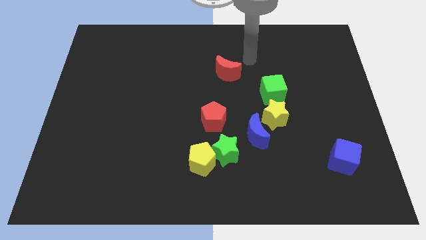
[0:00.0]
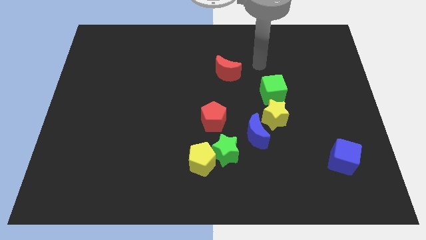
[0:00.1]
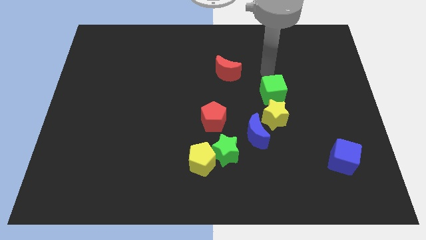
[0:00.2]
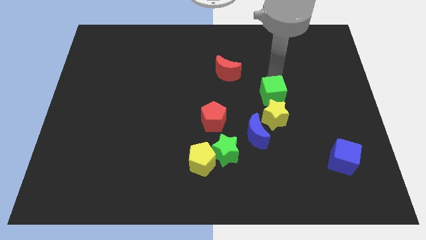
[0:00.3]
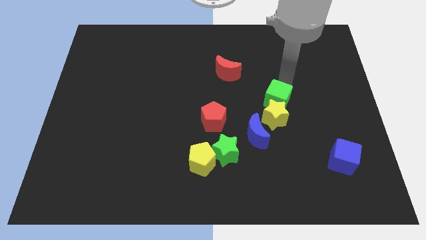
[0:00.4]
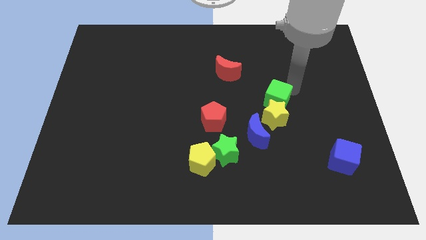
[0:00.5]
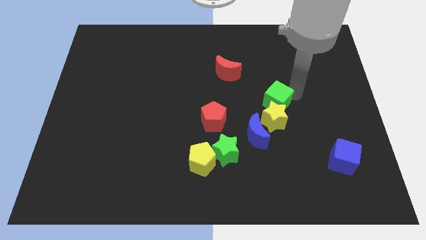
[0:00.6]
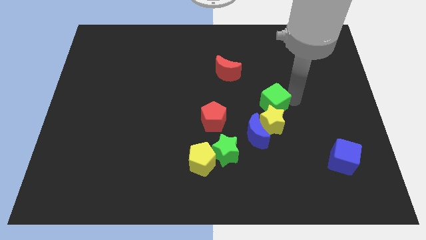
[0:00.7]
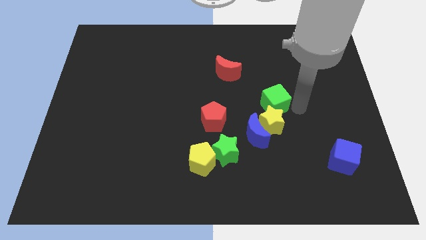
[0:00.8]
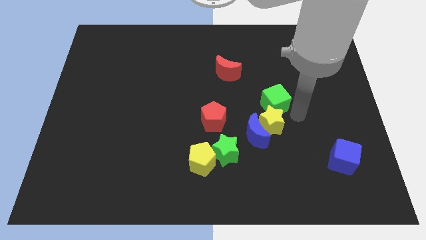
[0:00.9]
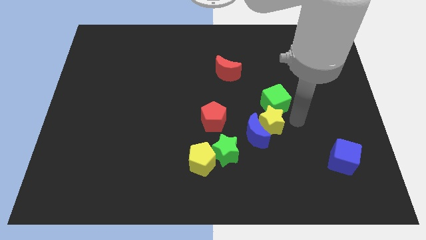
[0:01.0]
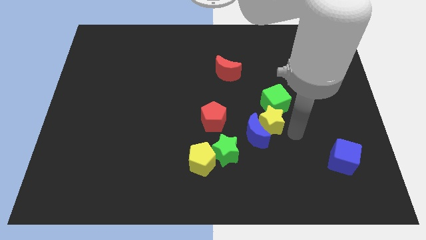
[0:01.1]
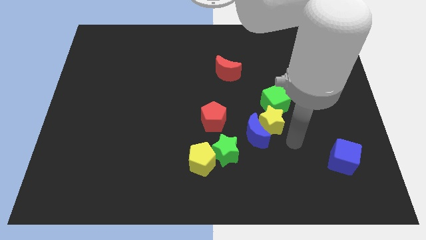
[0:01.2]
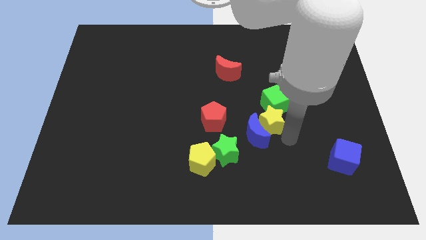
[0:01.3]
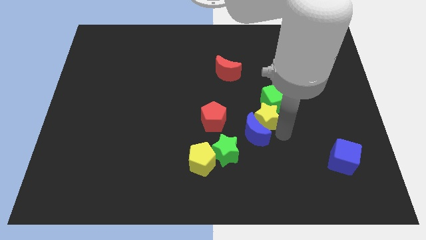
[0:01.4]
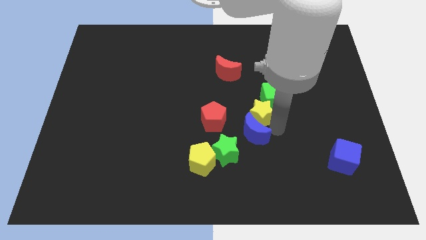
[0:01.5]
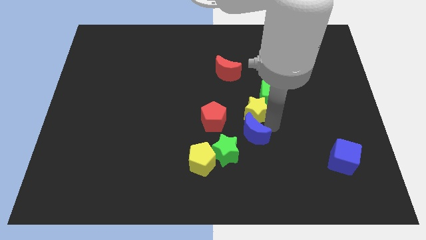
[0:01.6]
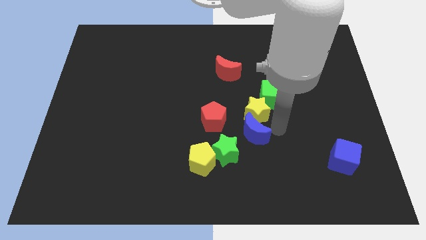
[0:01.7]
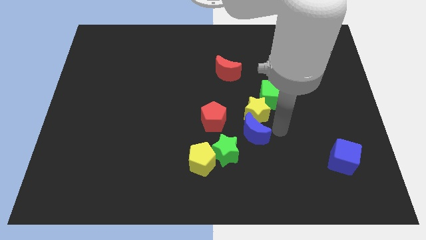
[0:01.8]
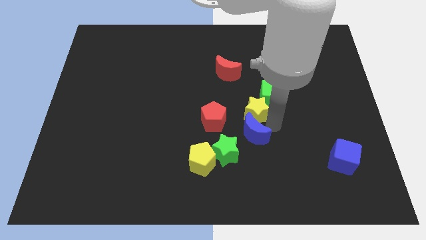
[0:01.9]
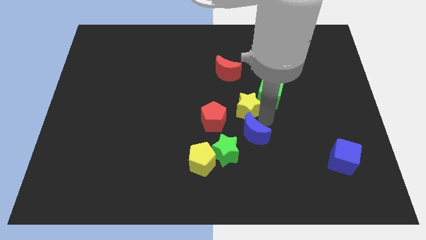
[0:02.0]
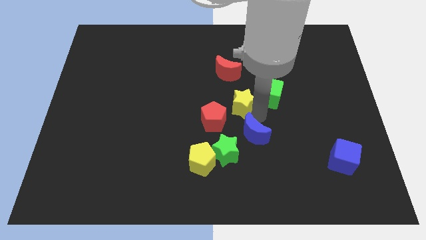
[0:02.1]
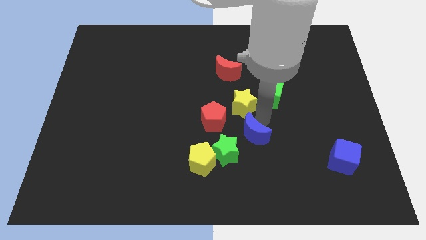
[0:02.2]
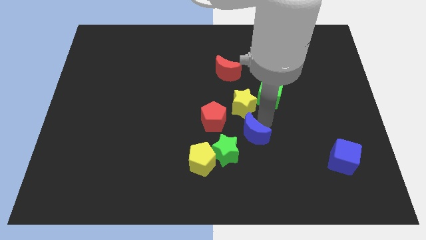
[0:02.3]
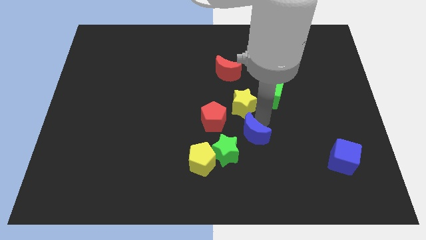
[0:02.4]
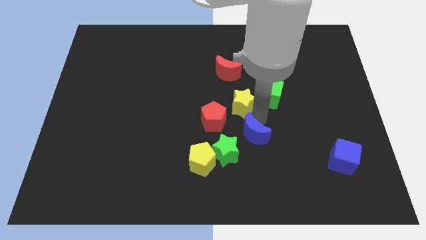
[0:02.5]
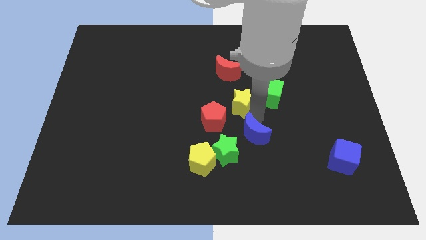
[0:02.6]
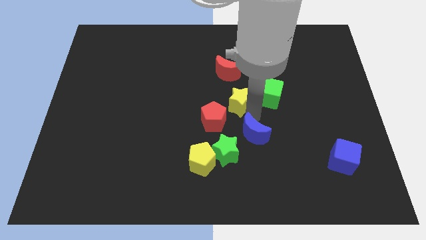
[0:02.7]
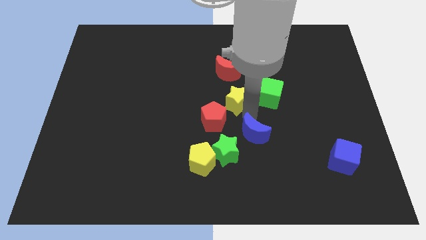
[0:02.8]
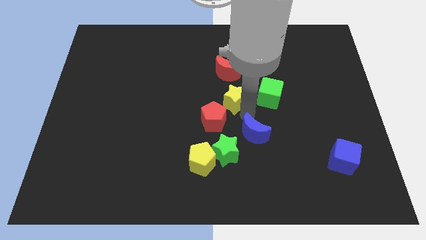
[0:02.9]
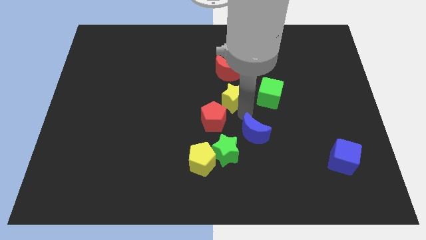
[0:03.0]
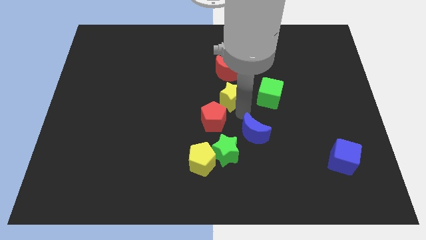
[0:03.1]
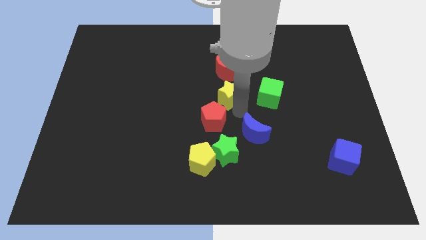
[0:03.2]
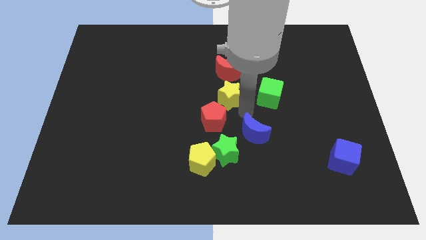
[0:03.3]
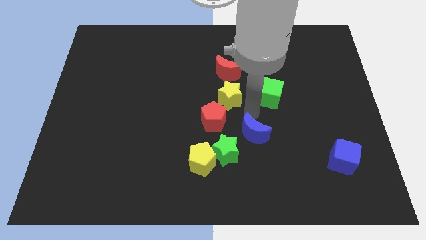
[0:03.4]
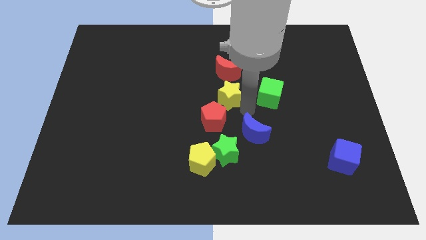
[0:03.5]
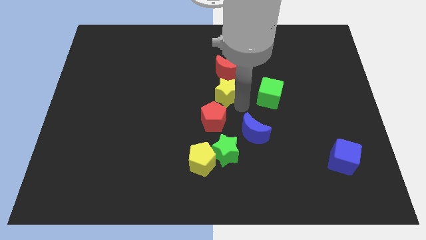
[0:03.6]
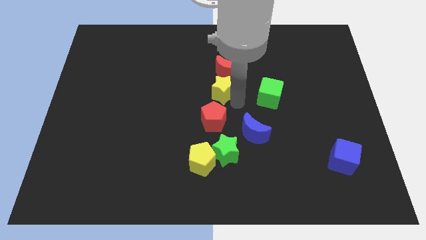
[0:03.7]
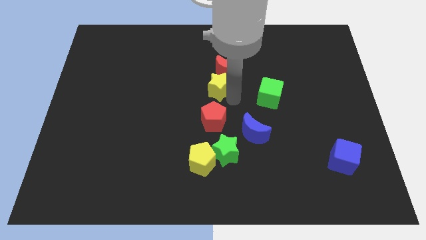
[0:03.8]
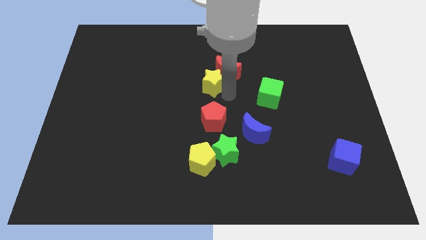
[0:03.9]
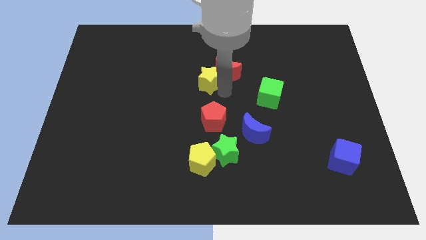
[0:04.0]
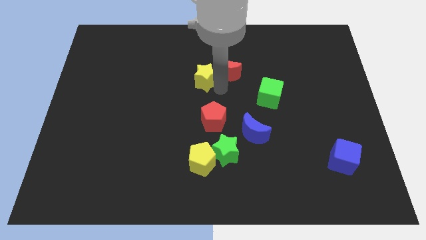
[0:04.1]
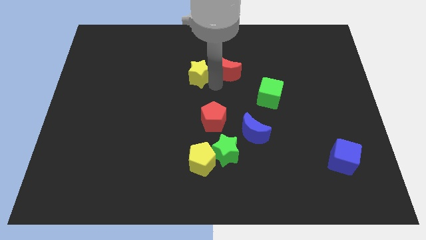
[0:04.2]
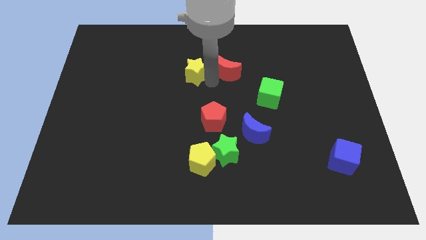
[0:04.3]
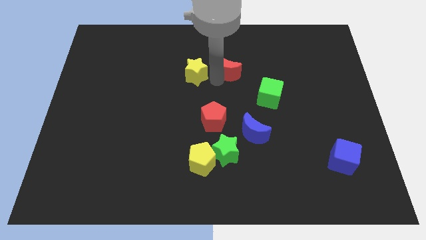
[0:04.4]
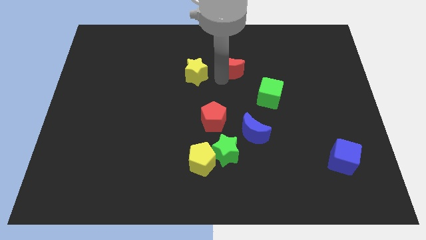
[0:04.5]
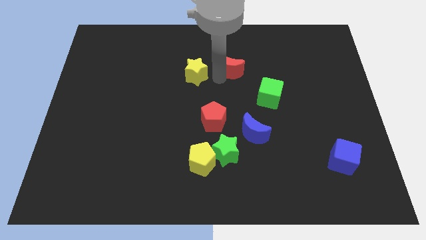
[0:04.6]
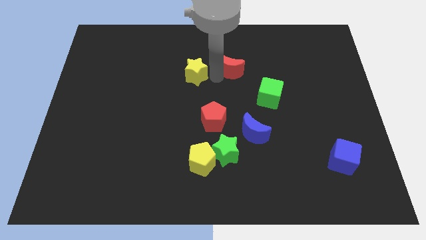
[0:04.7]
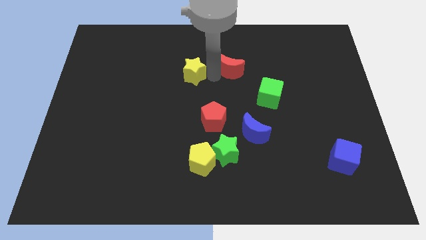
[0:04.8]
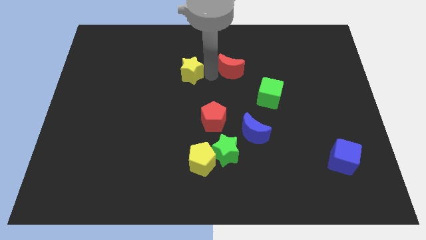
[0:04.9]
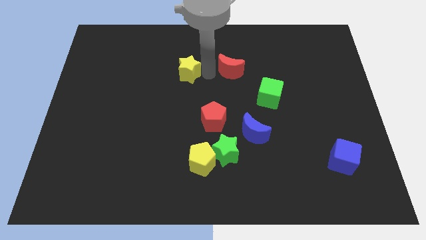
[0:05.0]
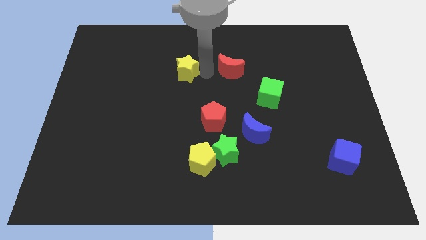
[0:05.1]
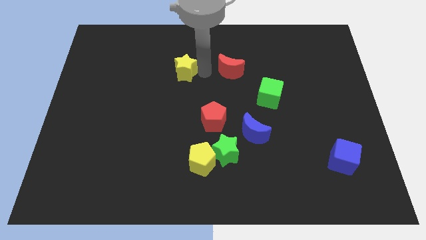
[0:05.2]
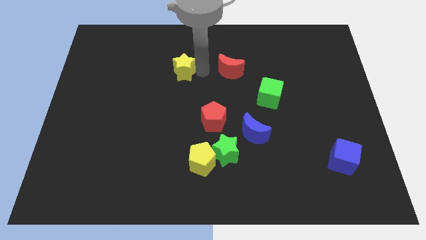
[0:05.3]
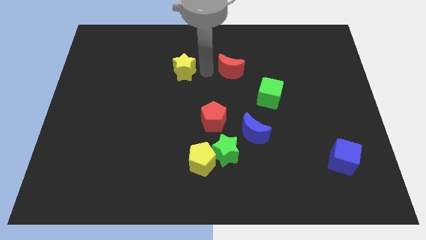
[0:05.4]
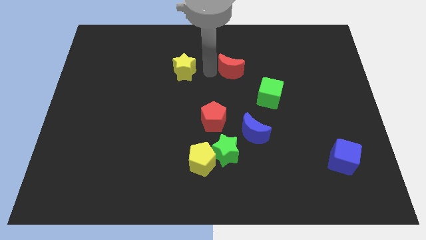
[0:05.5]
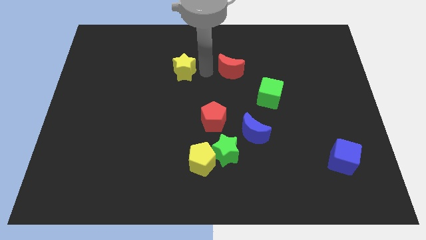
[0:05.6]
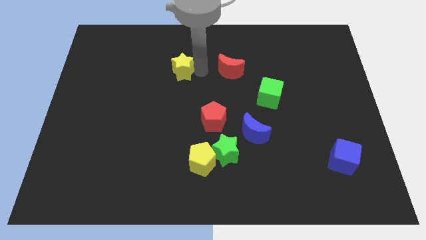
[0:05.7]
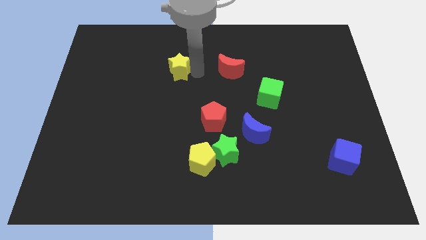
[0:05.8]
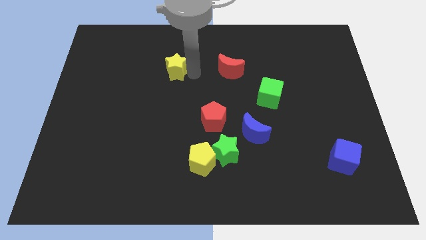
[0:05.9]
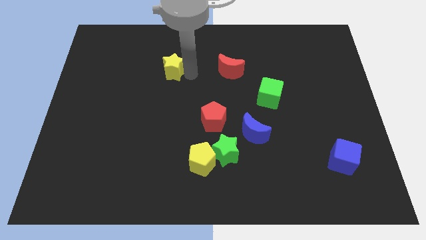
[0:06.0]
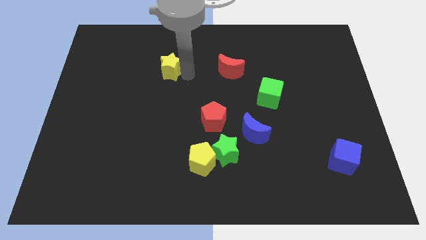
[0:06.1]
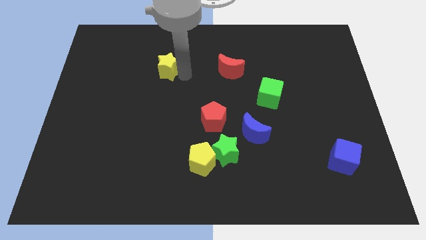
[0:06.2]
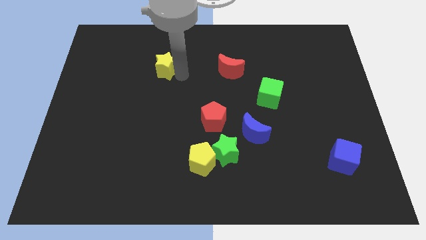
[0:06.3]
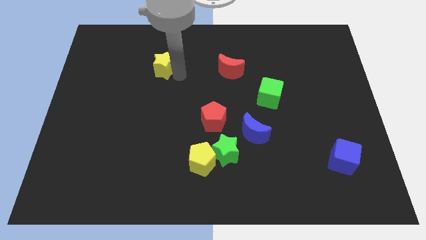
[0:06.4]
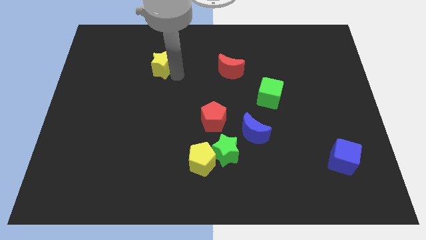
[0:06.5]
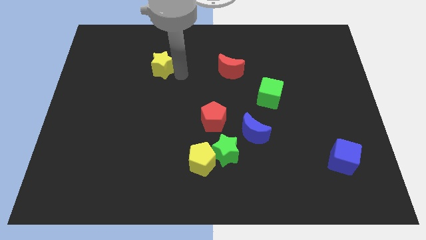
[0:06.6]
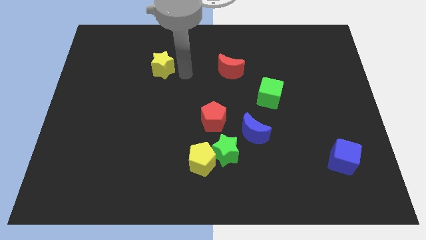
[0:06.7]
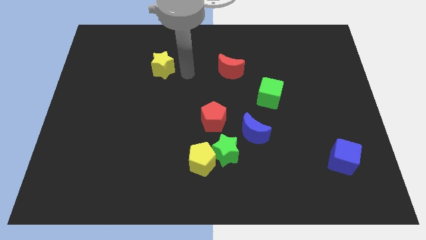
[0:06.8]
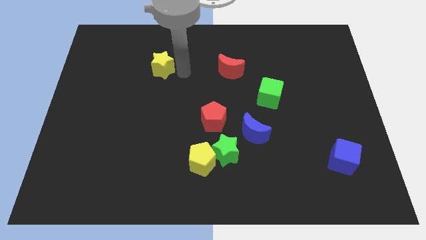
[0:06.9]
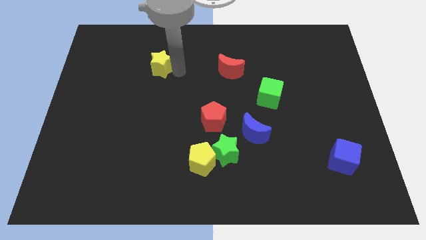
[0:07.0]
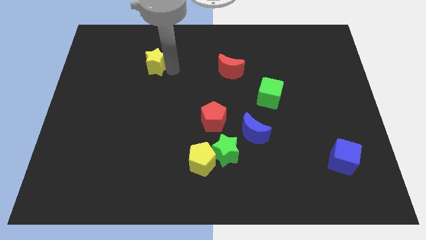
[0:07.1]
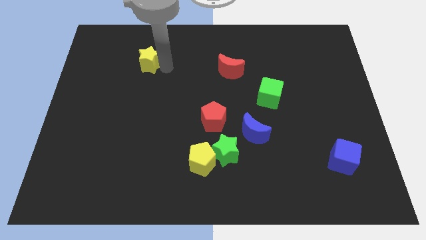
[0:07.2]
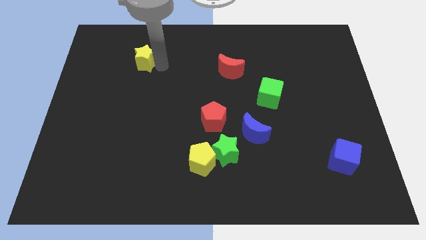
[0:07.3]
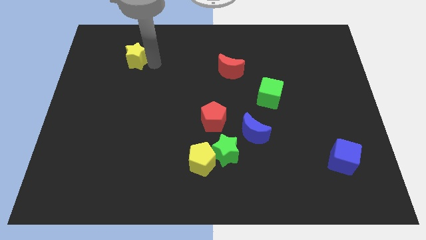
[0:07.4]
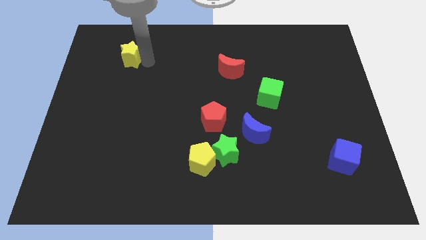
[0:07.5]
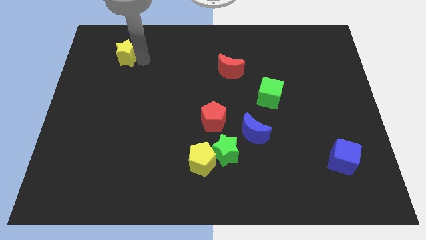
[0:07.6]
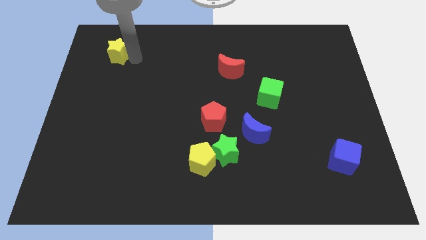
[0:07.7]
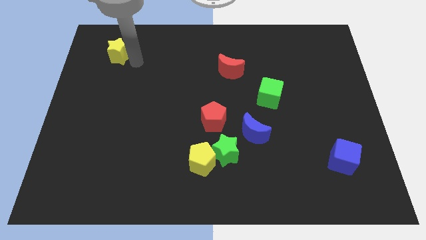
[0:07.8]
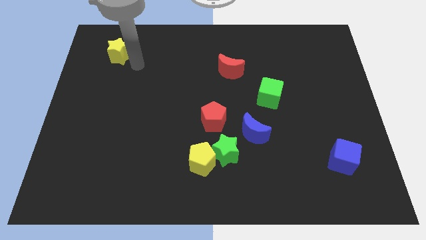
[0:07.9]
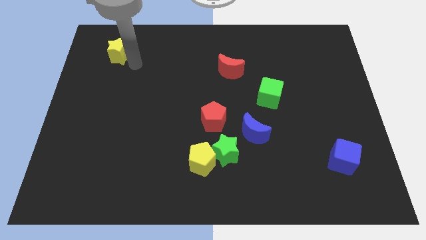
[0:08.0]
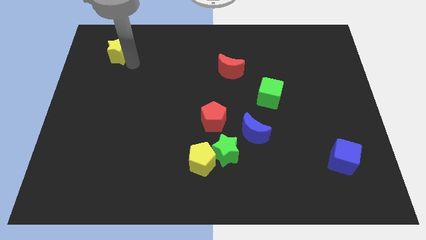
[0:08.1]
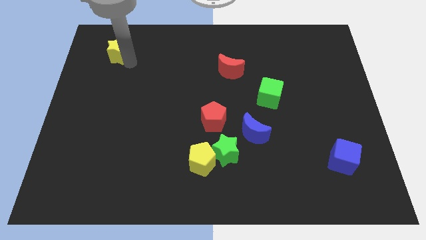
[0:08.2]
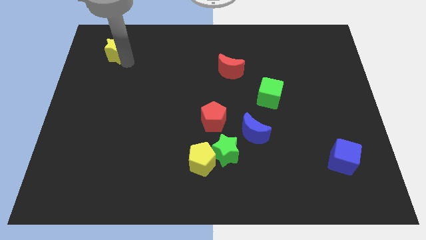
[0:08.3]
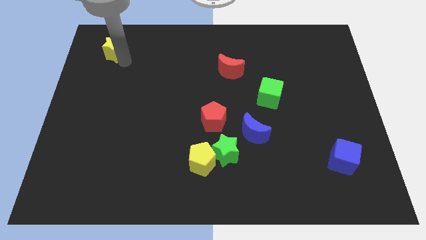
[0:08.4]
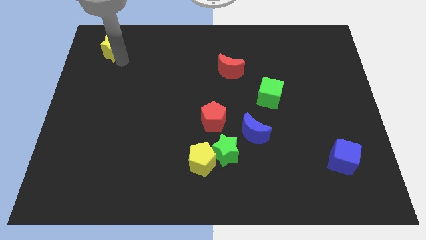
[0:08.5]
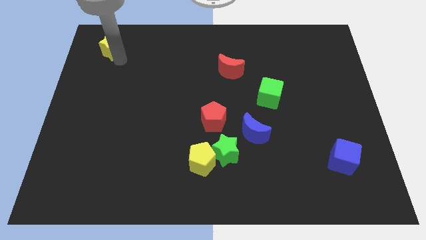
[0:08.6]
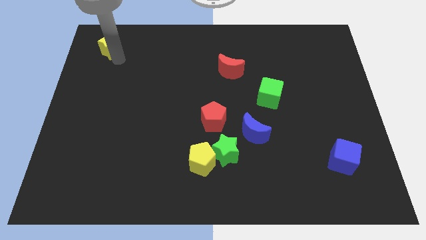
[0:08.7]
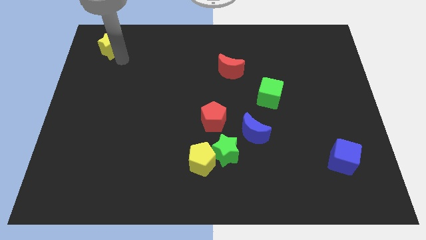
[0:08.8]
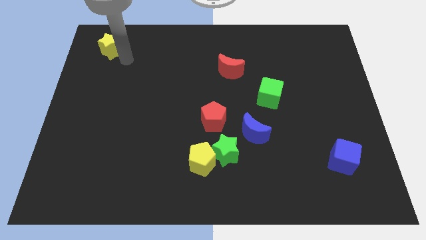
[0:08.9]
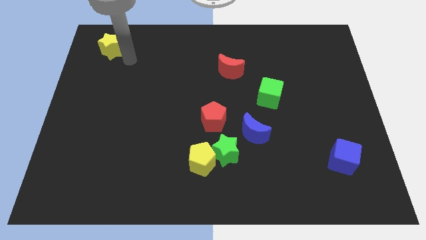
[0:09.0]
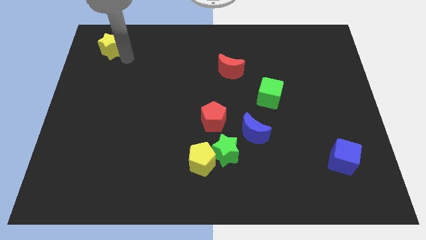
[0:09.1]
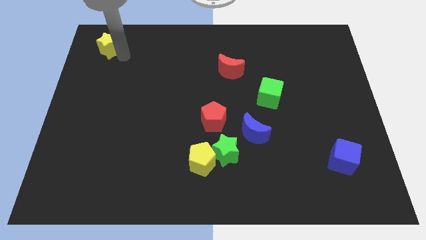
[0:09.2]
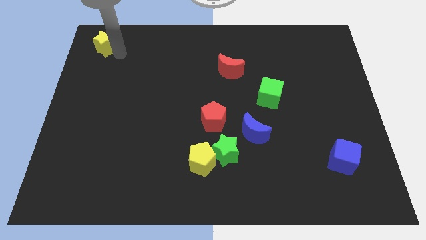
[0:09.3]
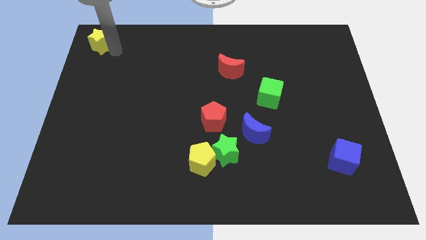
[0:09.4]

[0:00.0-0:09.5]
push the yellow star to the top left
